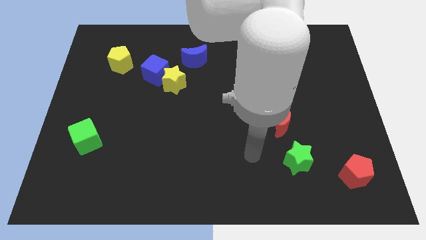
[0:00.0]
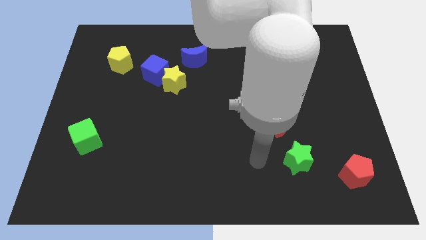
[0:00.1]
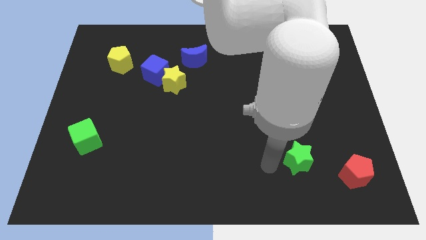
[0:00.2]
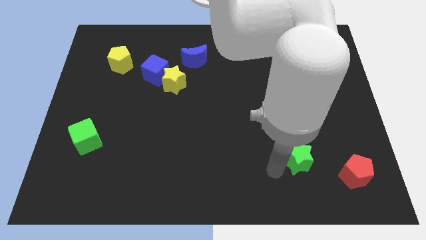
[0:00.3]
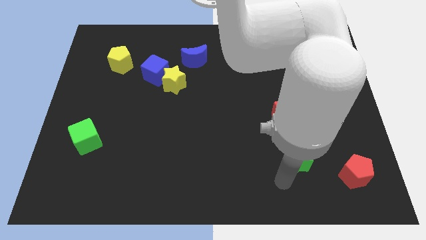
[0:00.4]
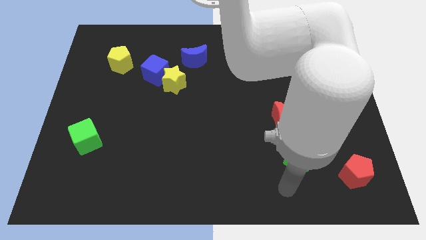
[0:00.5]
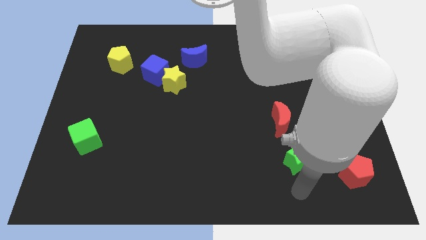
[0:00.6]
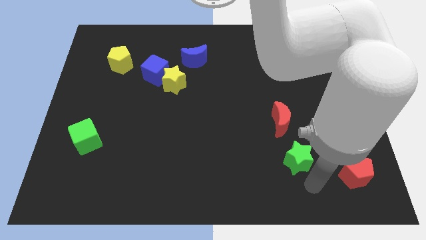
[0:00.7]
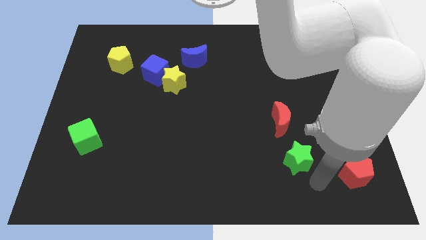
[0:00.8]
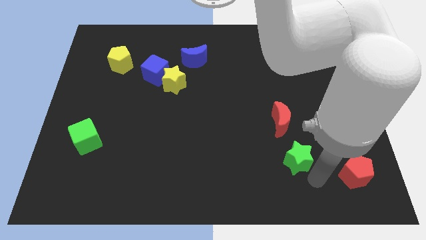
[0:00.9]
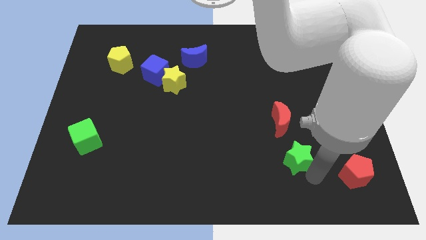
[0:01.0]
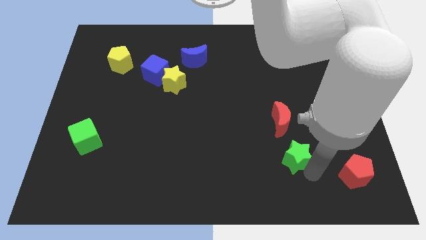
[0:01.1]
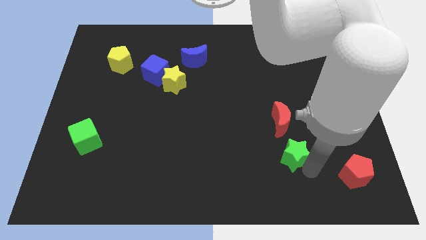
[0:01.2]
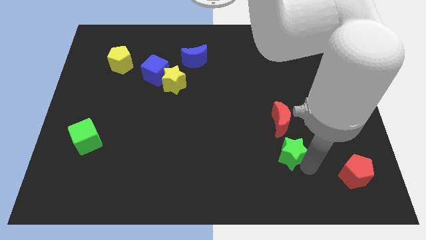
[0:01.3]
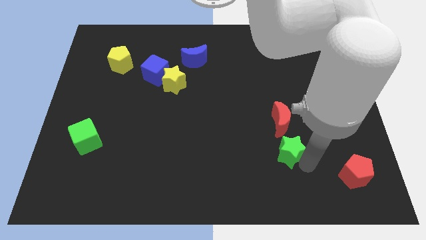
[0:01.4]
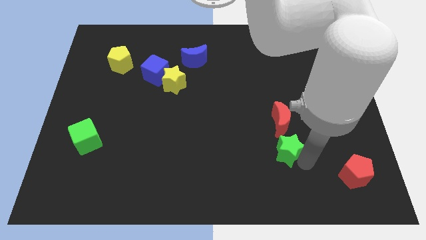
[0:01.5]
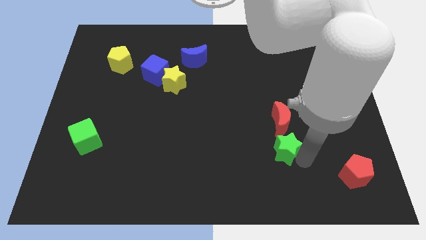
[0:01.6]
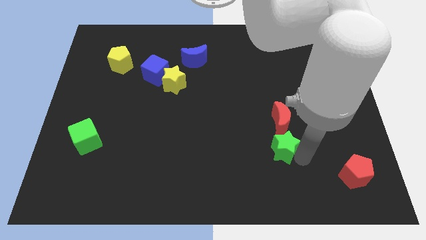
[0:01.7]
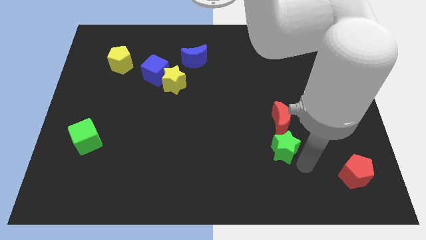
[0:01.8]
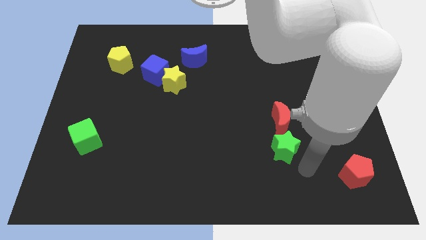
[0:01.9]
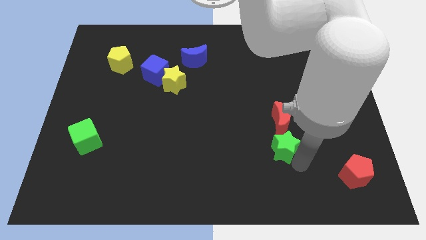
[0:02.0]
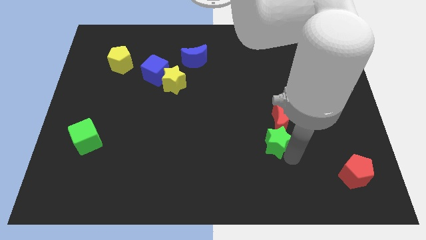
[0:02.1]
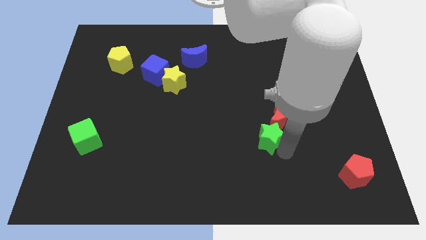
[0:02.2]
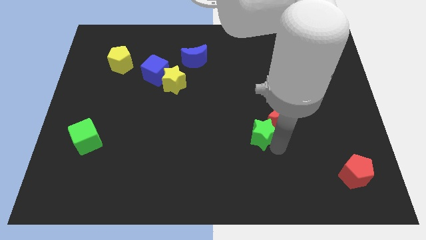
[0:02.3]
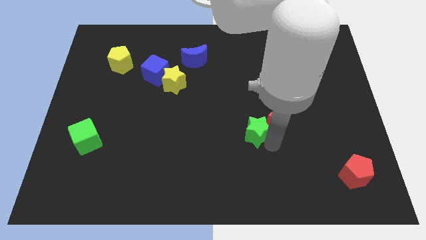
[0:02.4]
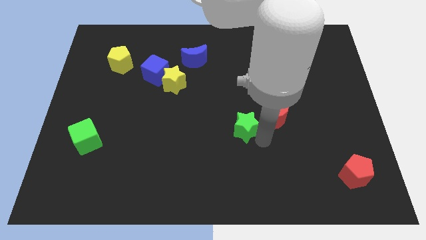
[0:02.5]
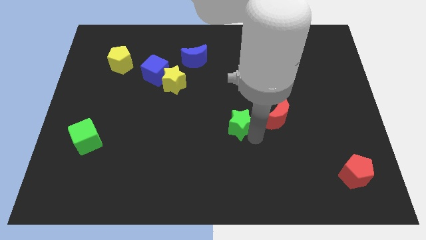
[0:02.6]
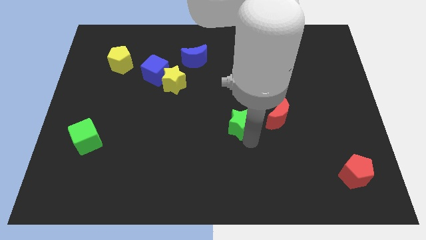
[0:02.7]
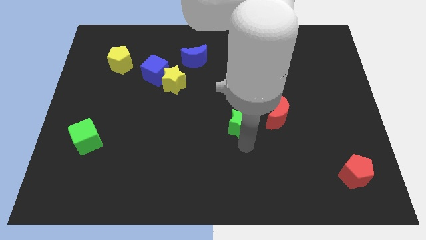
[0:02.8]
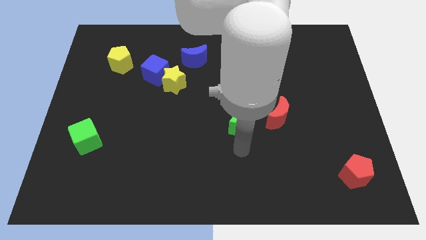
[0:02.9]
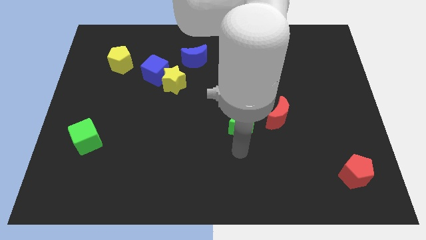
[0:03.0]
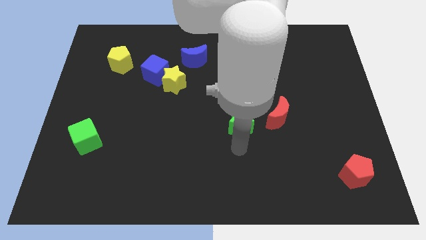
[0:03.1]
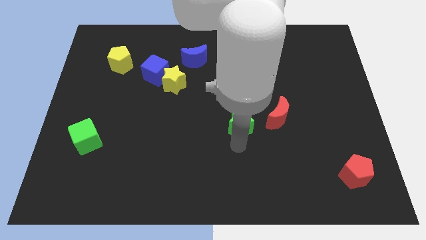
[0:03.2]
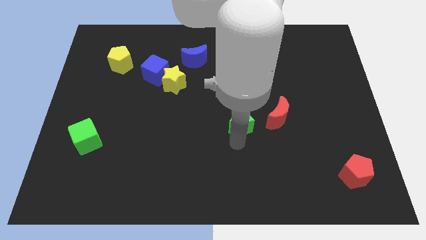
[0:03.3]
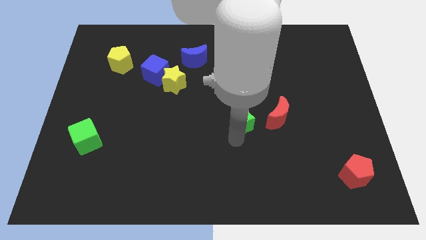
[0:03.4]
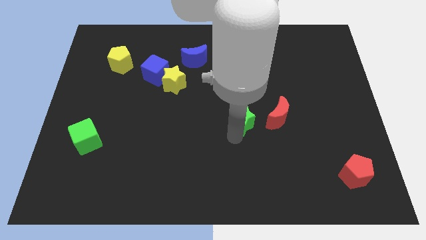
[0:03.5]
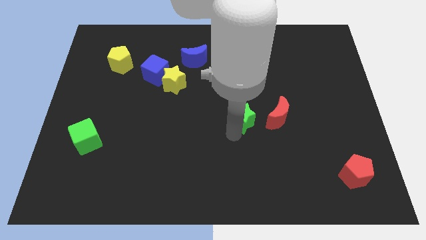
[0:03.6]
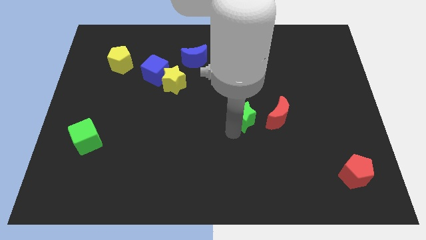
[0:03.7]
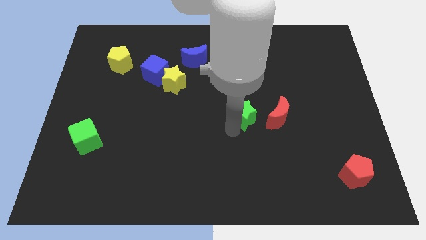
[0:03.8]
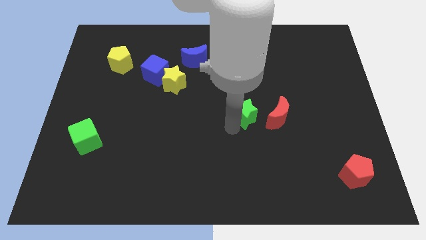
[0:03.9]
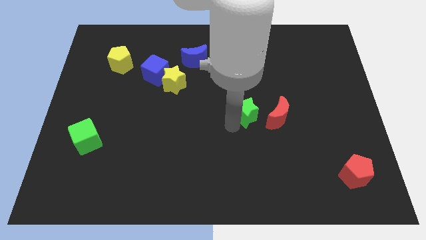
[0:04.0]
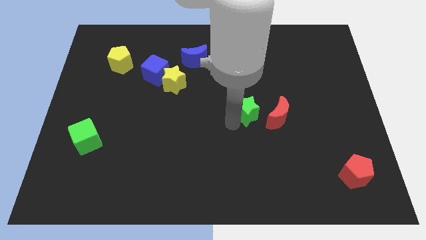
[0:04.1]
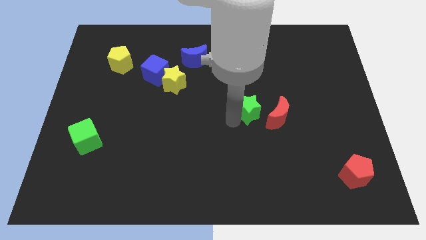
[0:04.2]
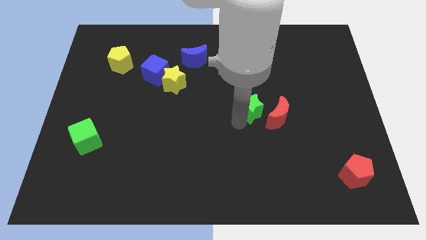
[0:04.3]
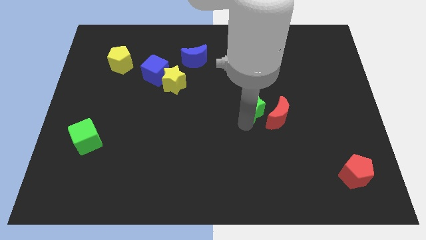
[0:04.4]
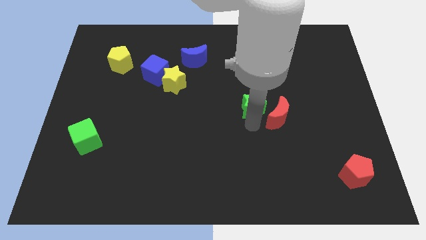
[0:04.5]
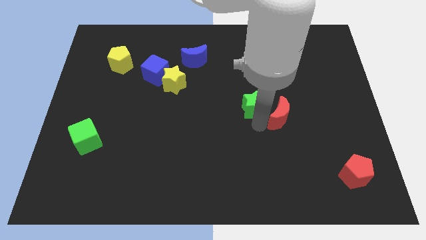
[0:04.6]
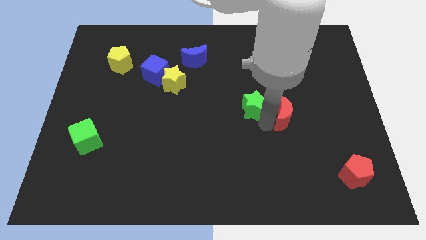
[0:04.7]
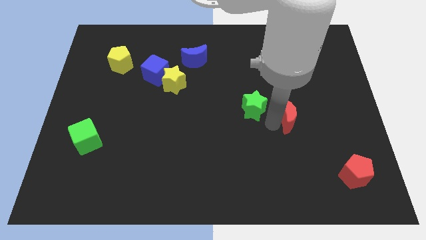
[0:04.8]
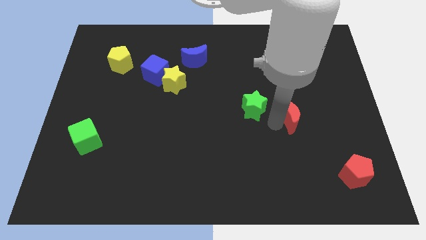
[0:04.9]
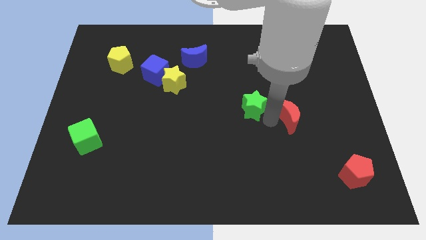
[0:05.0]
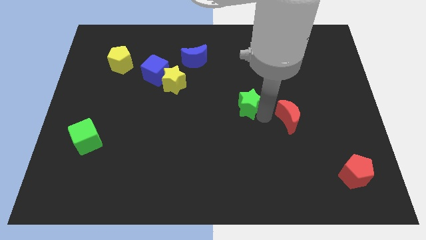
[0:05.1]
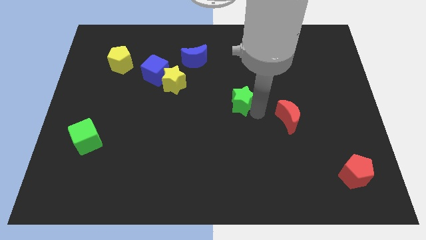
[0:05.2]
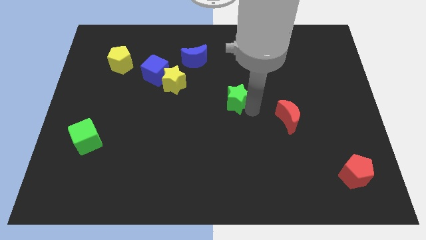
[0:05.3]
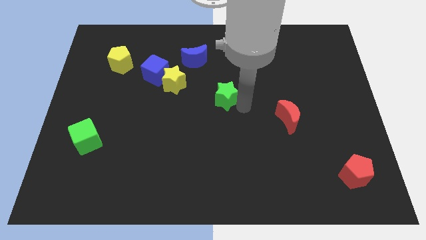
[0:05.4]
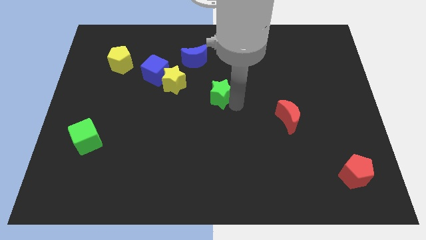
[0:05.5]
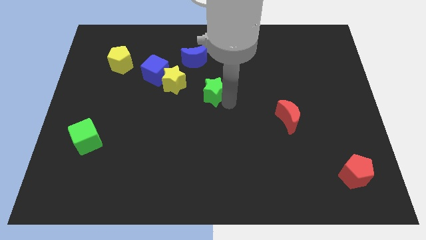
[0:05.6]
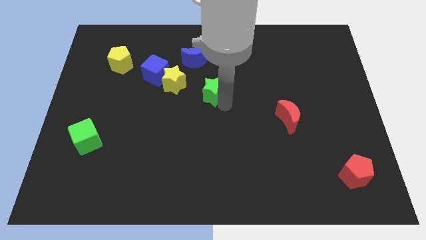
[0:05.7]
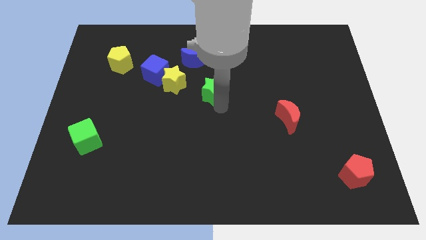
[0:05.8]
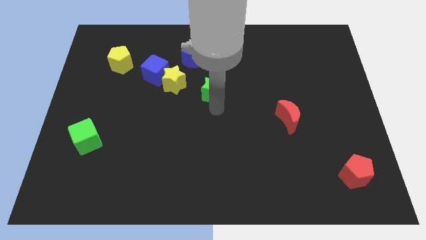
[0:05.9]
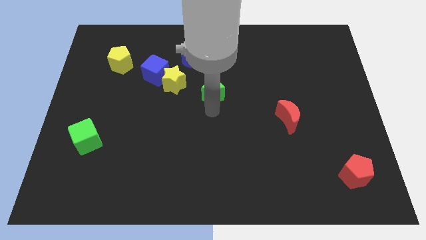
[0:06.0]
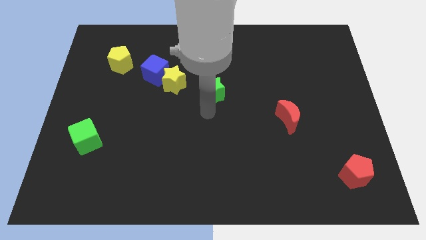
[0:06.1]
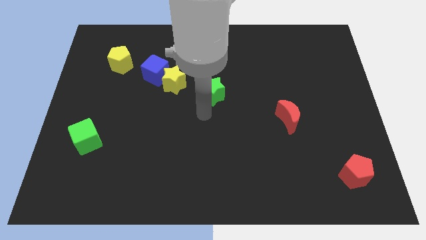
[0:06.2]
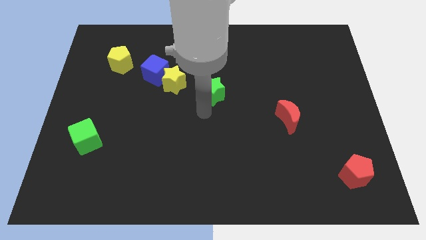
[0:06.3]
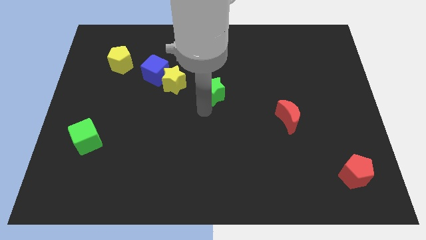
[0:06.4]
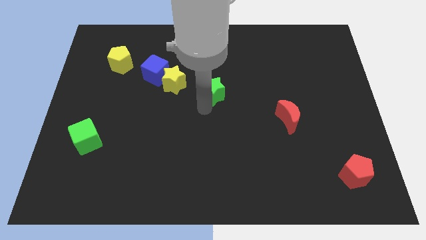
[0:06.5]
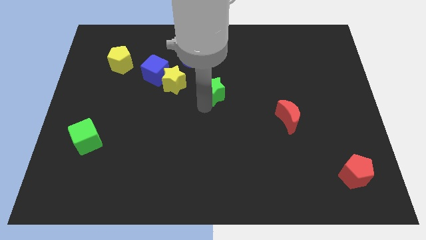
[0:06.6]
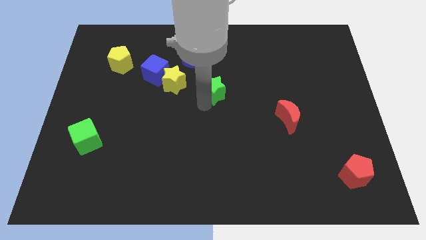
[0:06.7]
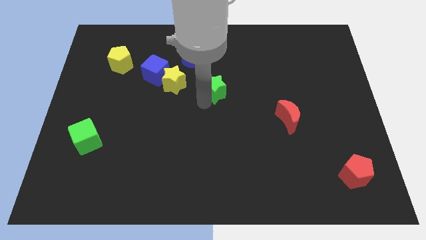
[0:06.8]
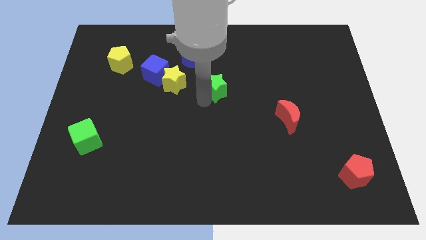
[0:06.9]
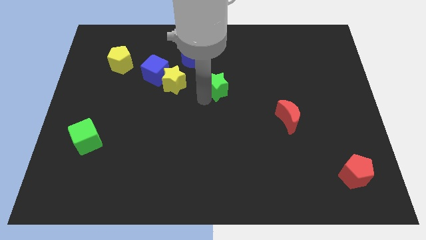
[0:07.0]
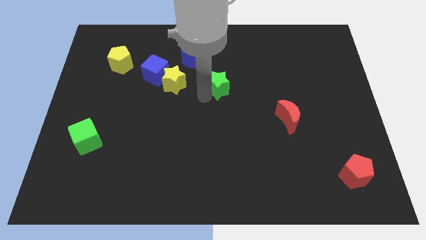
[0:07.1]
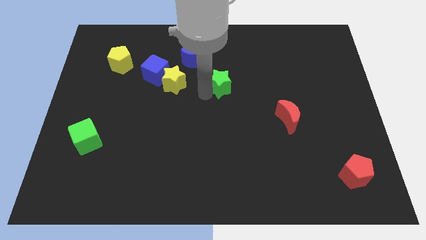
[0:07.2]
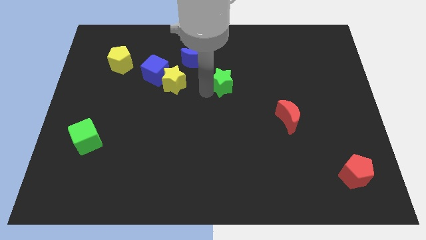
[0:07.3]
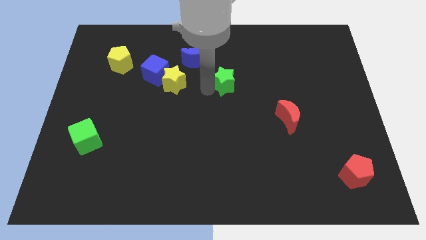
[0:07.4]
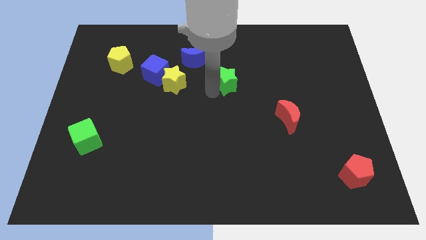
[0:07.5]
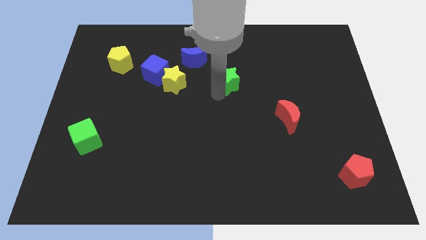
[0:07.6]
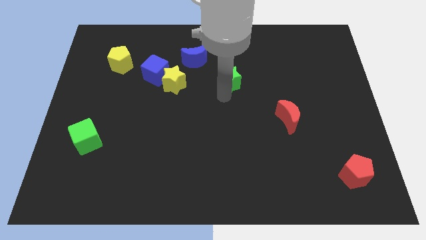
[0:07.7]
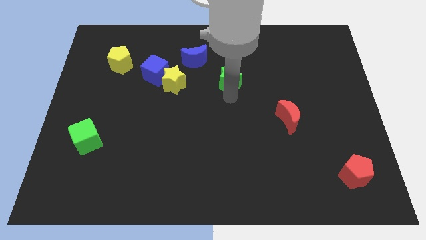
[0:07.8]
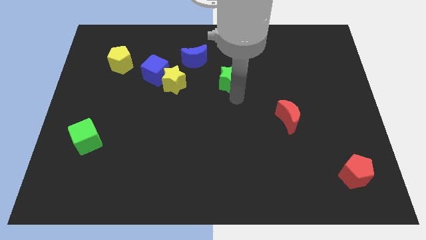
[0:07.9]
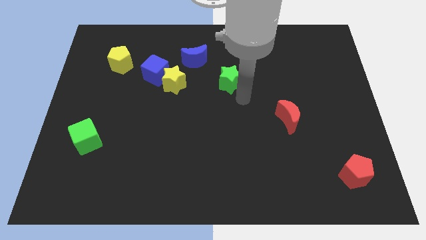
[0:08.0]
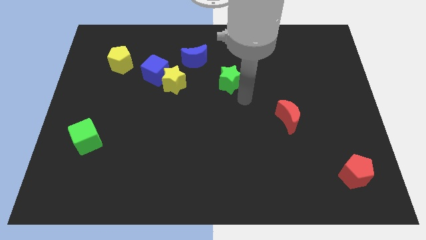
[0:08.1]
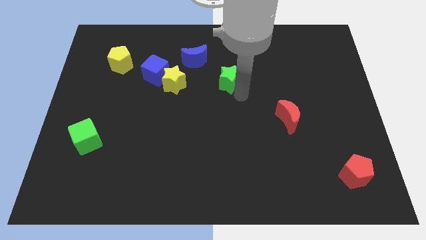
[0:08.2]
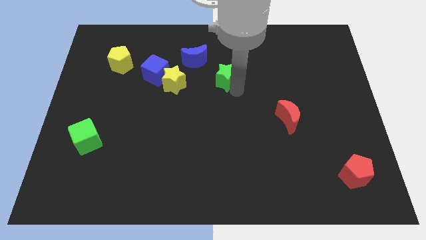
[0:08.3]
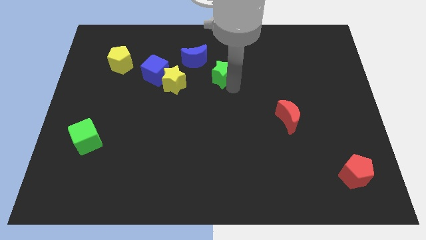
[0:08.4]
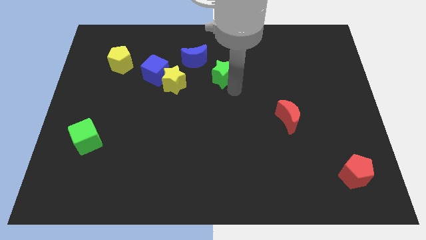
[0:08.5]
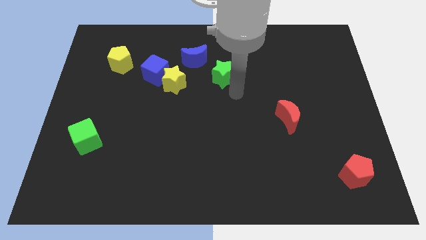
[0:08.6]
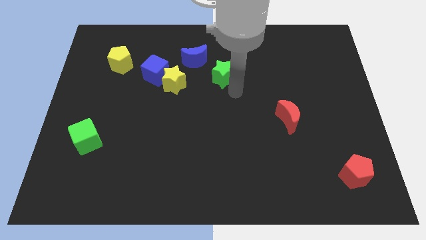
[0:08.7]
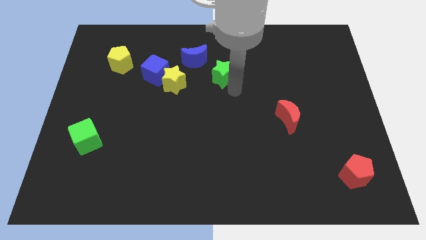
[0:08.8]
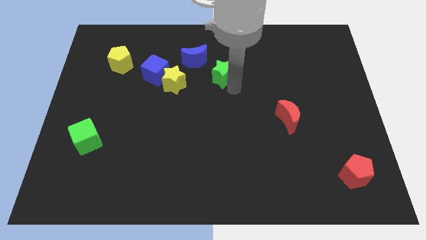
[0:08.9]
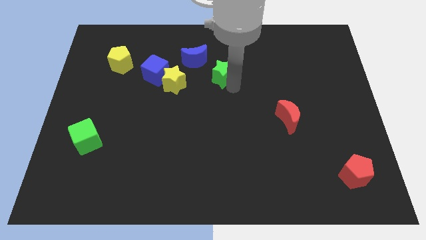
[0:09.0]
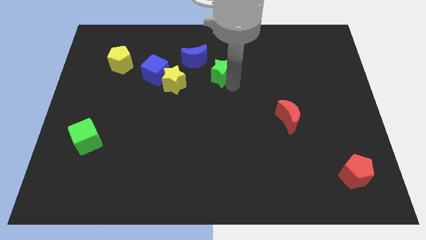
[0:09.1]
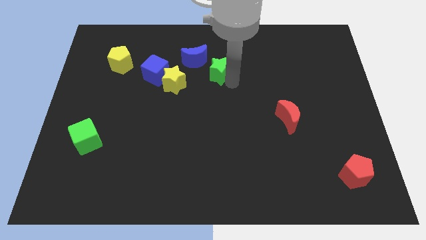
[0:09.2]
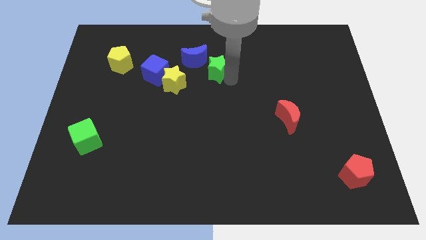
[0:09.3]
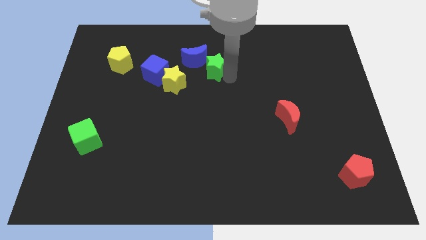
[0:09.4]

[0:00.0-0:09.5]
put the green star next to the blue moon
